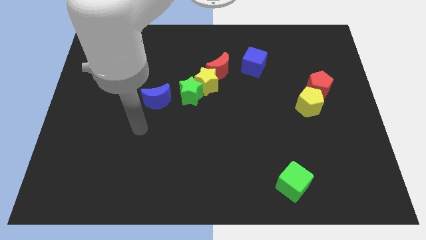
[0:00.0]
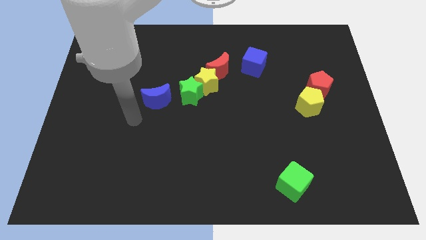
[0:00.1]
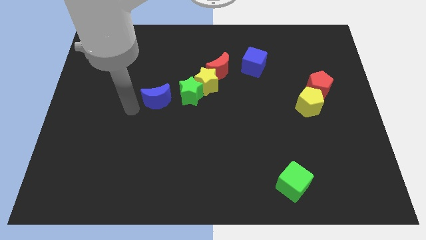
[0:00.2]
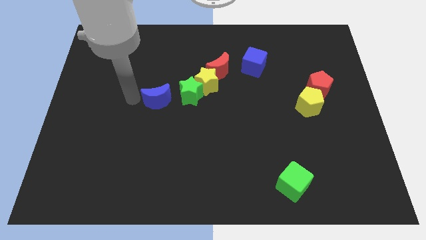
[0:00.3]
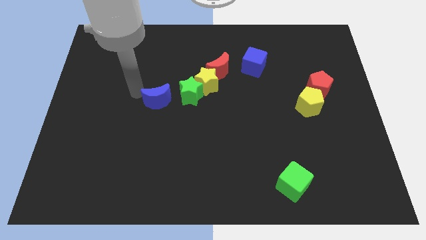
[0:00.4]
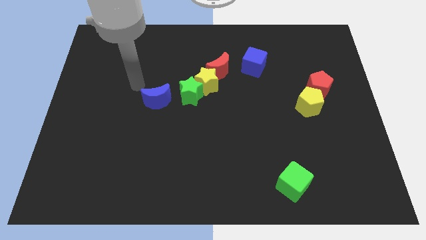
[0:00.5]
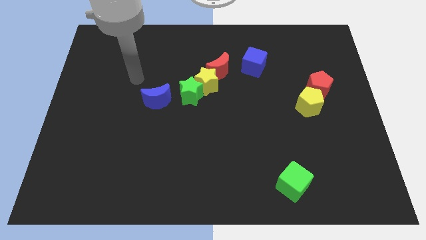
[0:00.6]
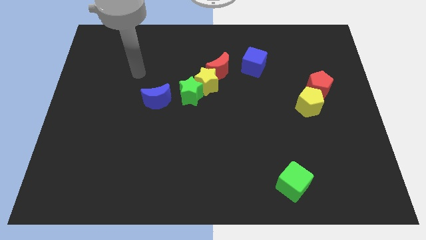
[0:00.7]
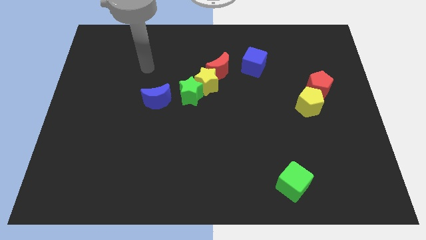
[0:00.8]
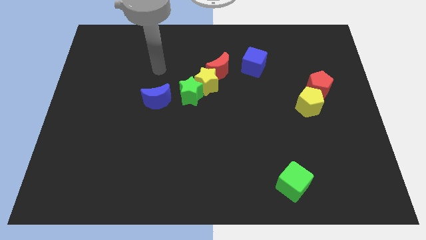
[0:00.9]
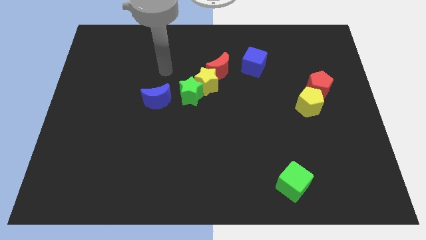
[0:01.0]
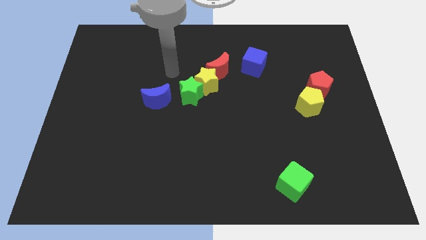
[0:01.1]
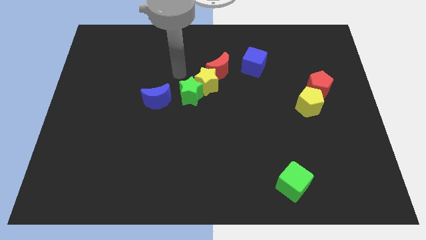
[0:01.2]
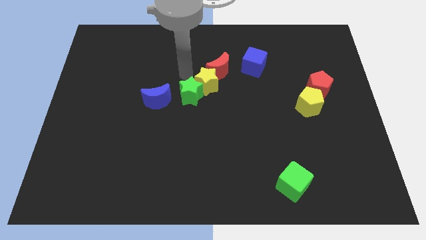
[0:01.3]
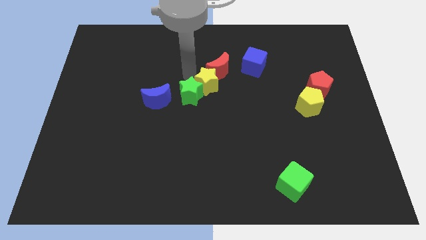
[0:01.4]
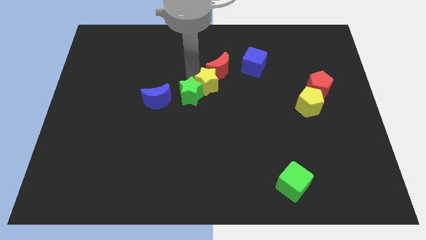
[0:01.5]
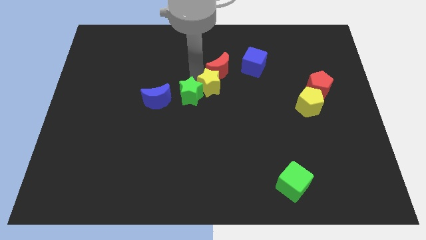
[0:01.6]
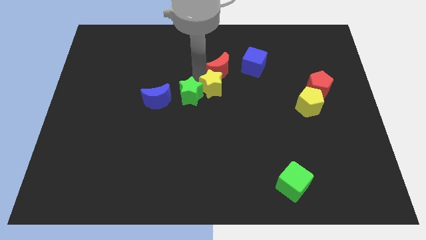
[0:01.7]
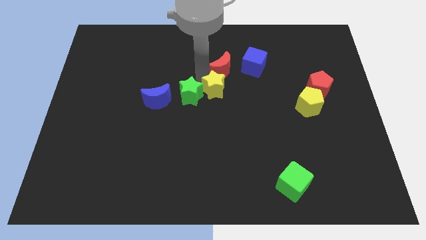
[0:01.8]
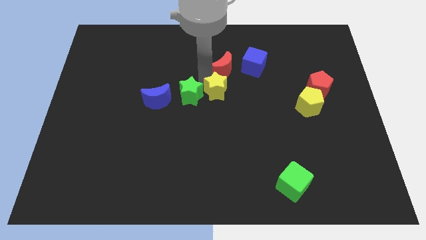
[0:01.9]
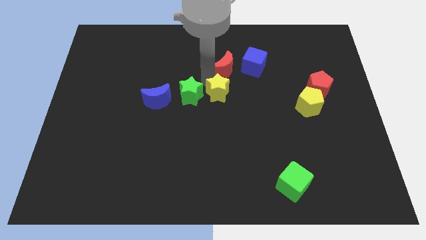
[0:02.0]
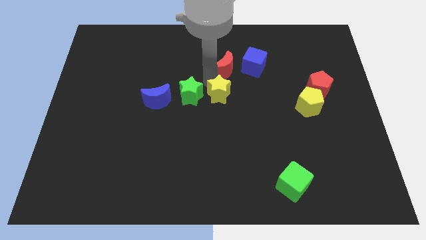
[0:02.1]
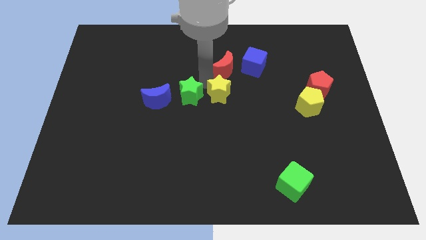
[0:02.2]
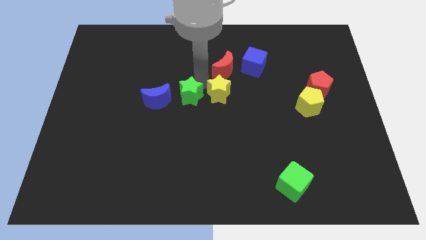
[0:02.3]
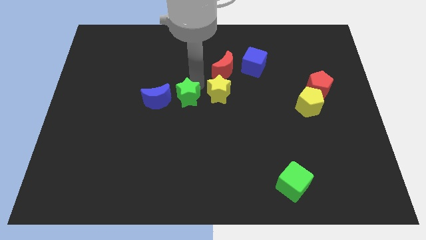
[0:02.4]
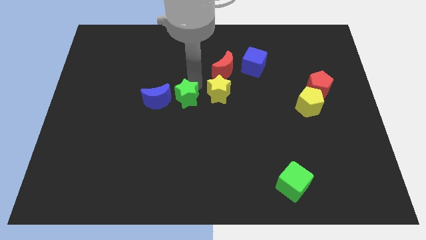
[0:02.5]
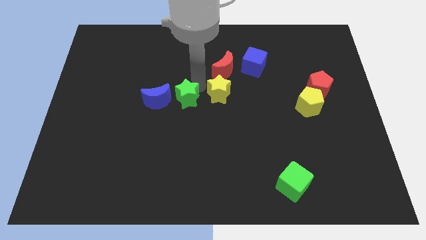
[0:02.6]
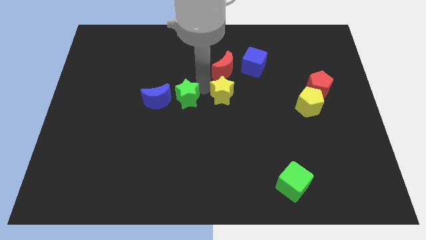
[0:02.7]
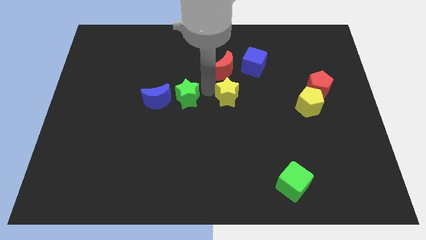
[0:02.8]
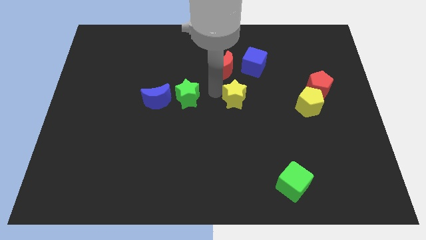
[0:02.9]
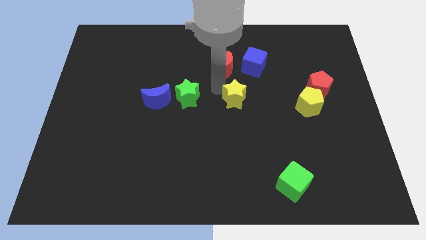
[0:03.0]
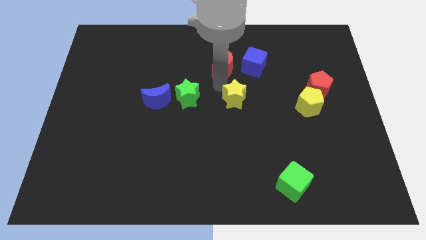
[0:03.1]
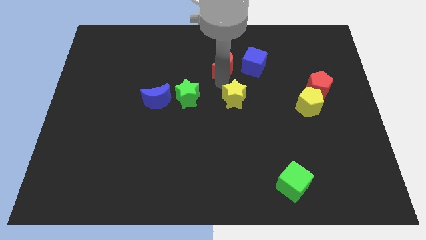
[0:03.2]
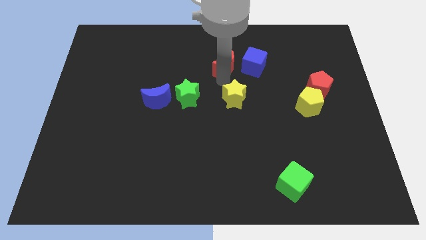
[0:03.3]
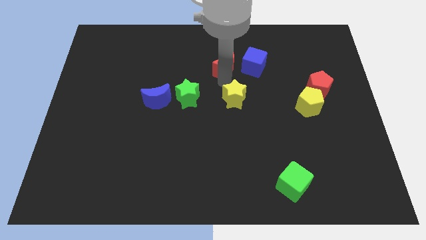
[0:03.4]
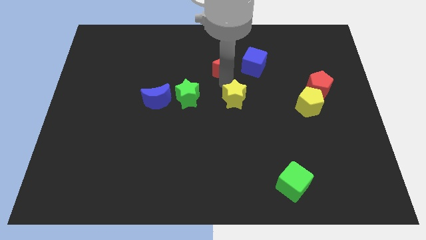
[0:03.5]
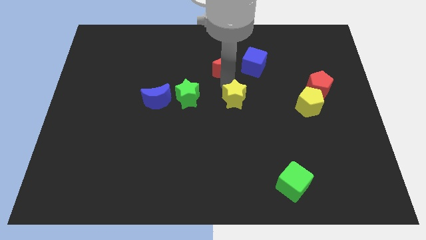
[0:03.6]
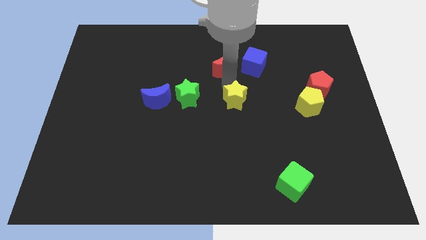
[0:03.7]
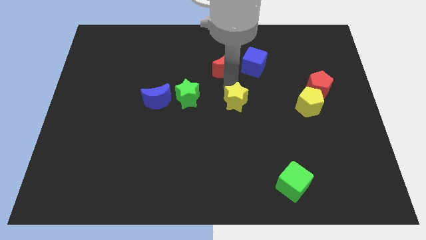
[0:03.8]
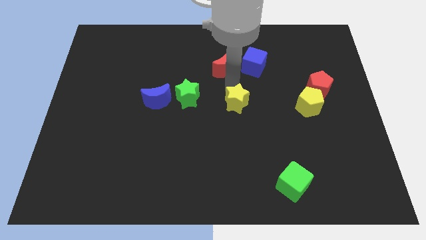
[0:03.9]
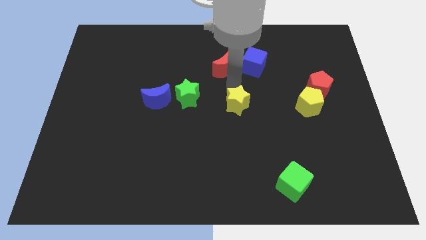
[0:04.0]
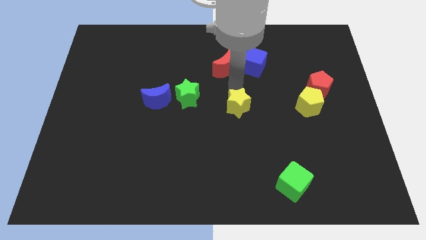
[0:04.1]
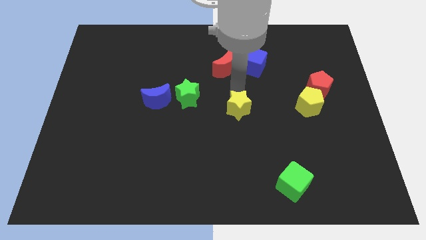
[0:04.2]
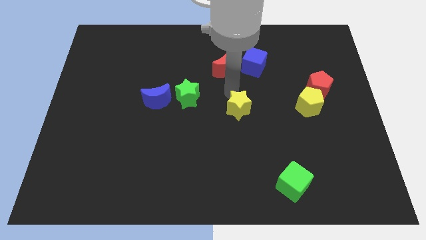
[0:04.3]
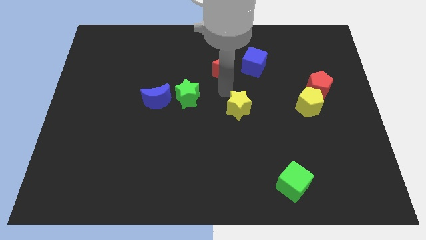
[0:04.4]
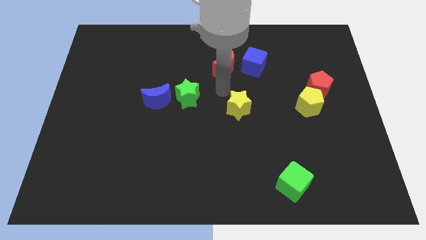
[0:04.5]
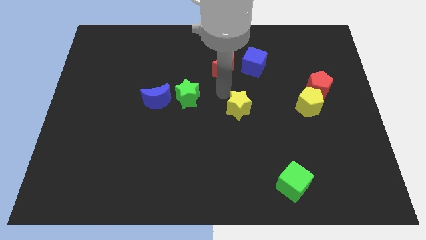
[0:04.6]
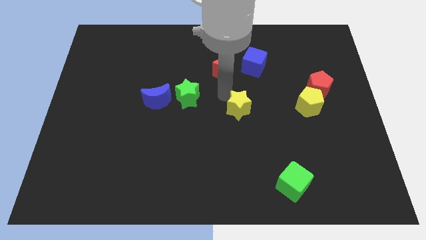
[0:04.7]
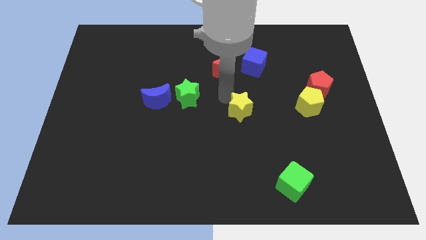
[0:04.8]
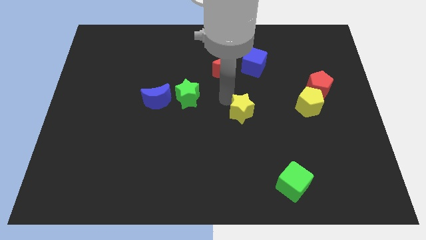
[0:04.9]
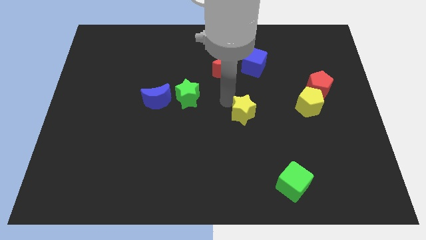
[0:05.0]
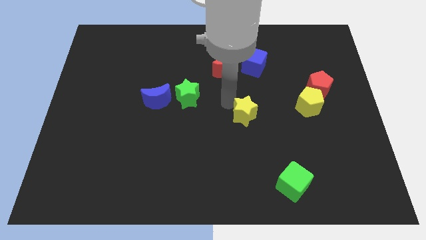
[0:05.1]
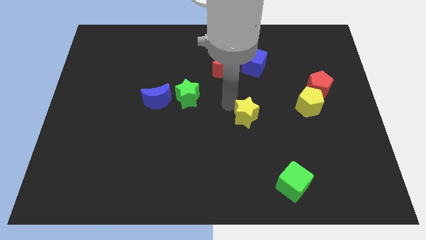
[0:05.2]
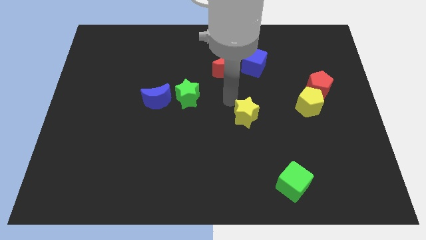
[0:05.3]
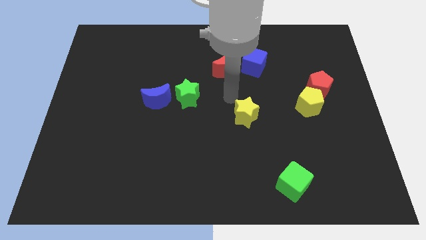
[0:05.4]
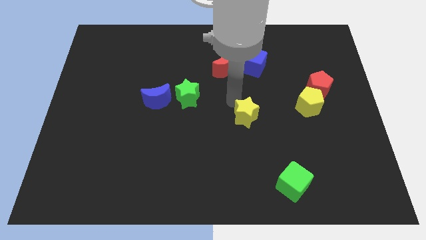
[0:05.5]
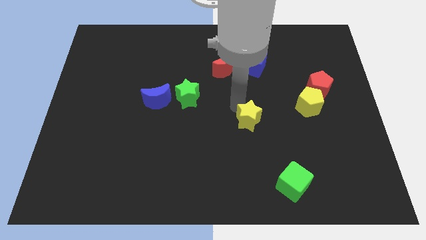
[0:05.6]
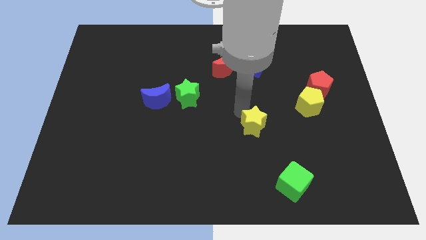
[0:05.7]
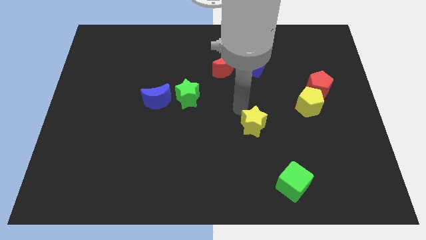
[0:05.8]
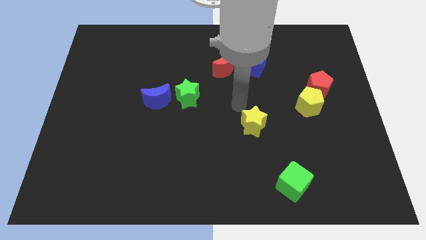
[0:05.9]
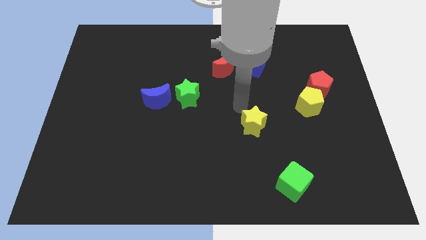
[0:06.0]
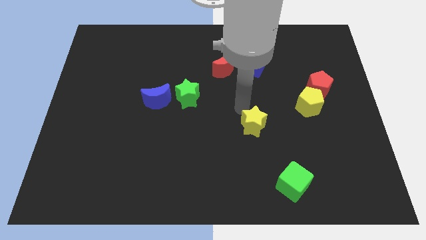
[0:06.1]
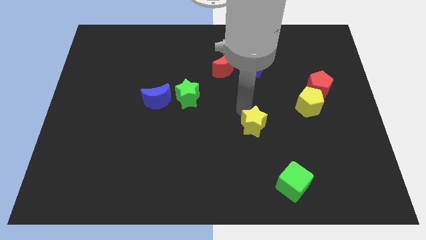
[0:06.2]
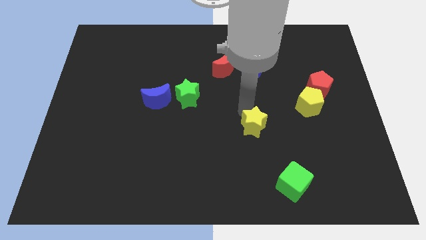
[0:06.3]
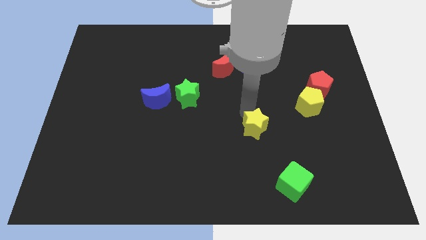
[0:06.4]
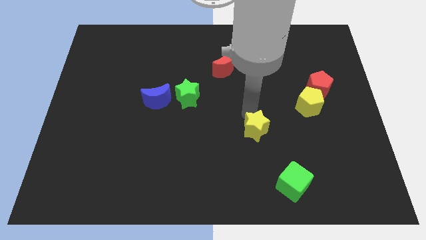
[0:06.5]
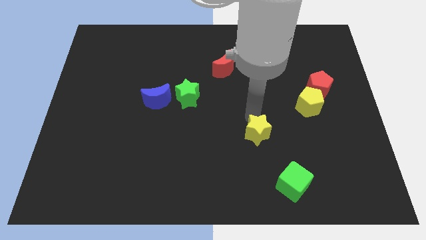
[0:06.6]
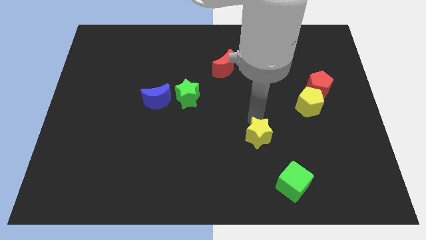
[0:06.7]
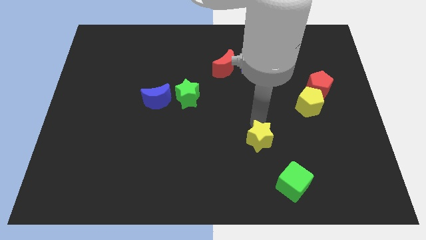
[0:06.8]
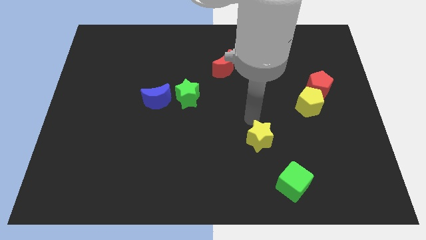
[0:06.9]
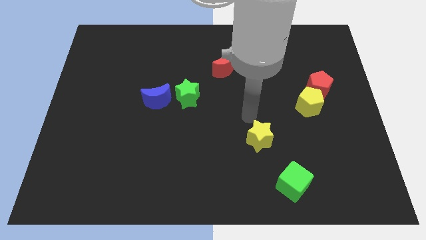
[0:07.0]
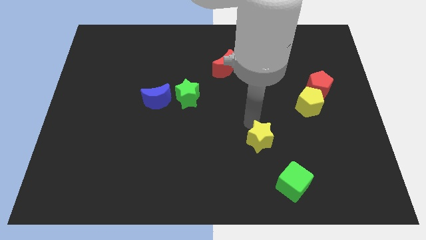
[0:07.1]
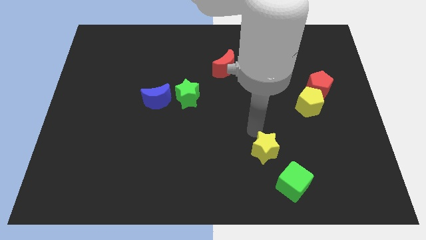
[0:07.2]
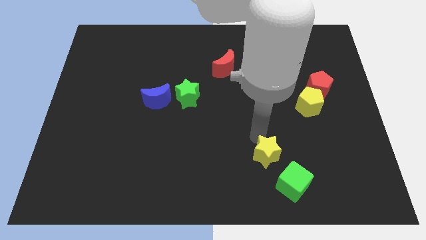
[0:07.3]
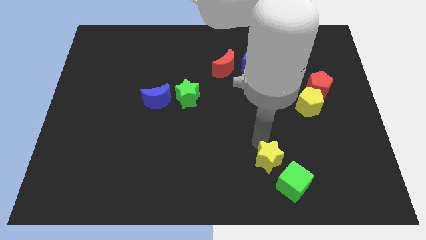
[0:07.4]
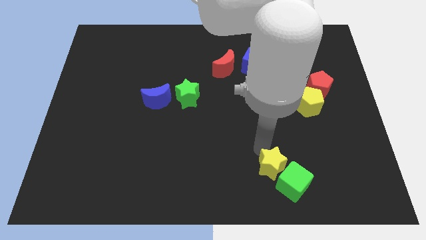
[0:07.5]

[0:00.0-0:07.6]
put the yellow star to the green cube
